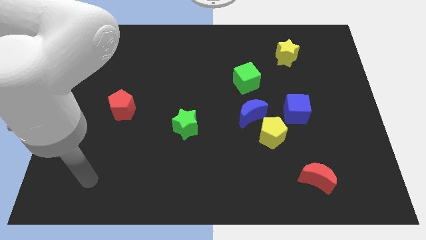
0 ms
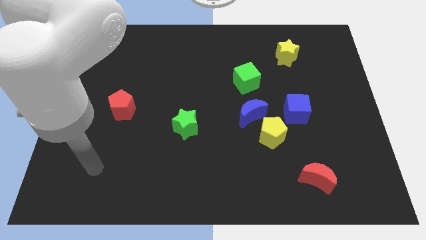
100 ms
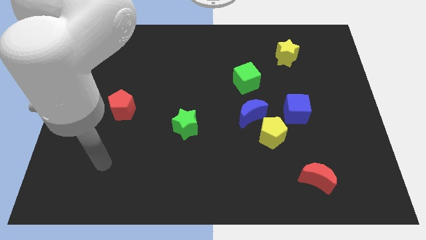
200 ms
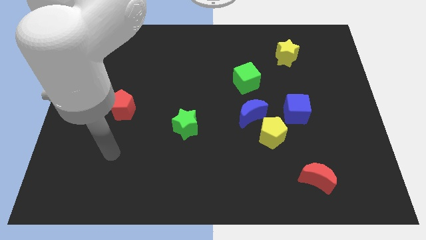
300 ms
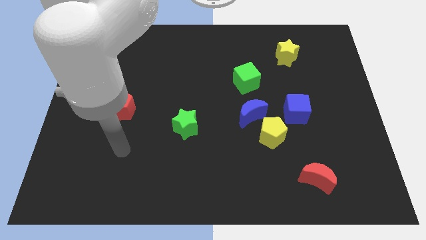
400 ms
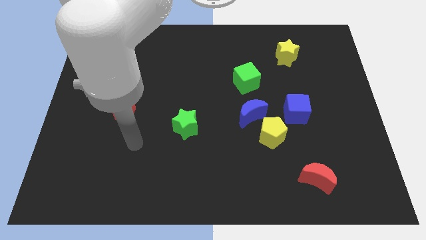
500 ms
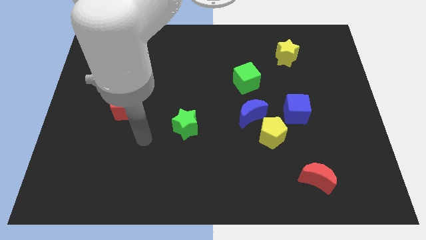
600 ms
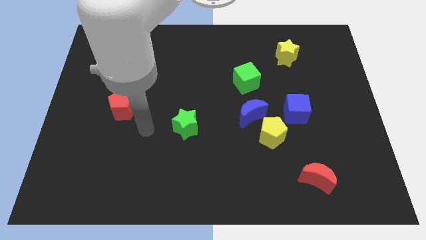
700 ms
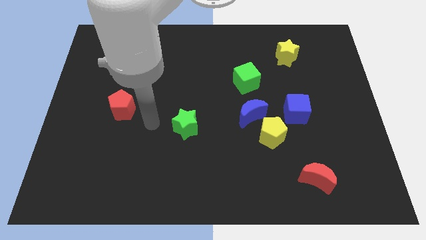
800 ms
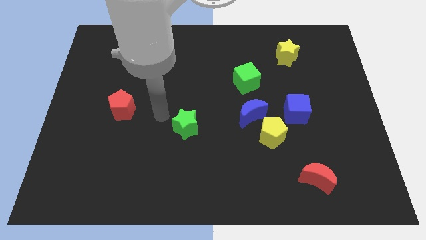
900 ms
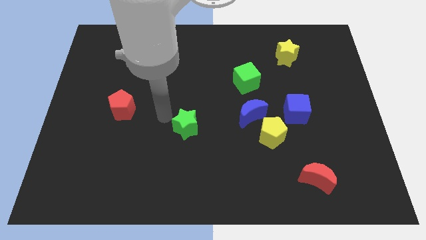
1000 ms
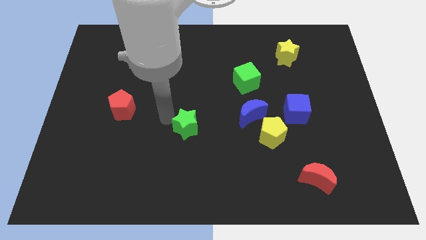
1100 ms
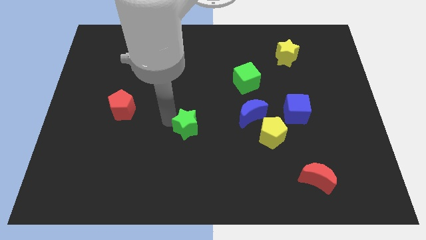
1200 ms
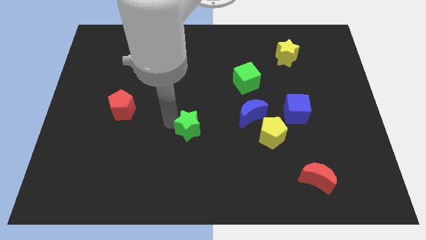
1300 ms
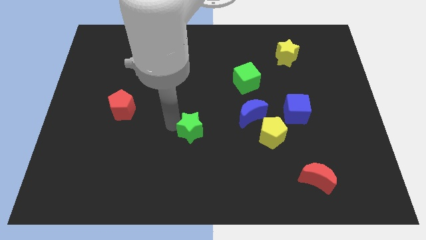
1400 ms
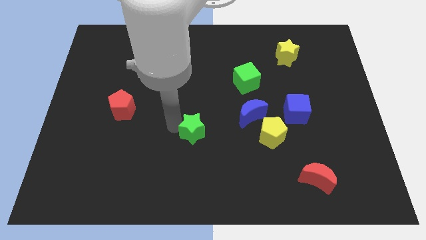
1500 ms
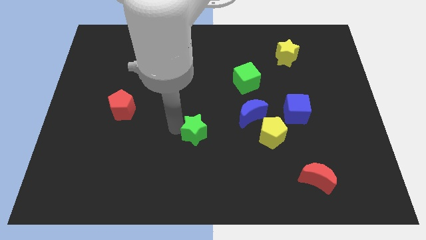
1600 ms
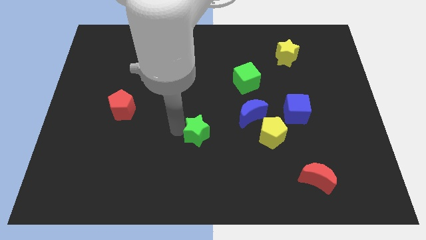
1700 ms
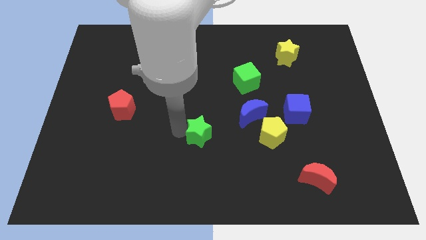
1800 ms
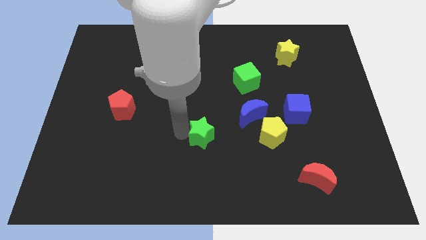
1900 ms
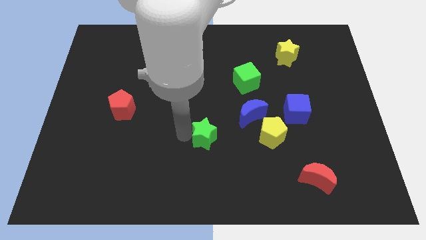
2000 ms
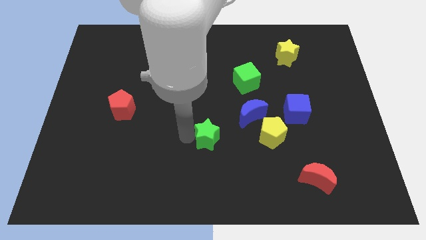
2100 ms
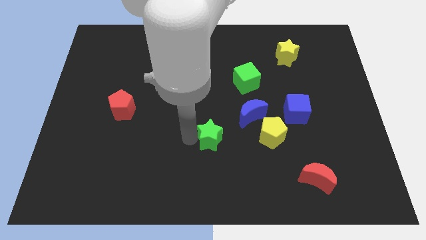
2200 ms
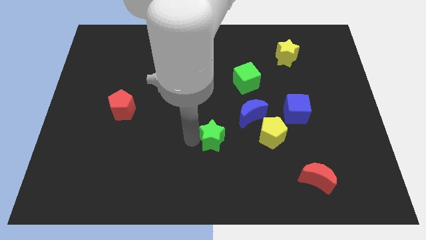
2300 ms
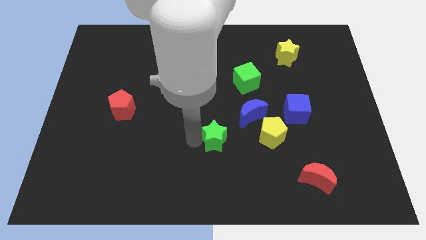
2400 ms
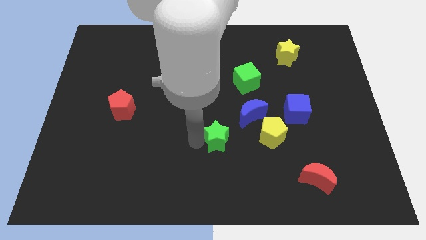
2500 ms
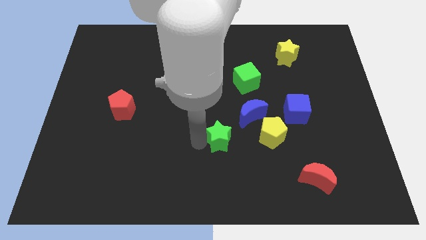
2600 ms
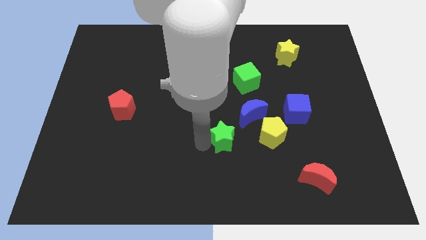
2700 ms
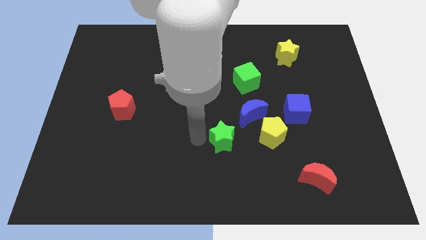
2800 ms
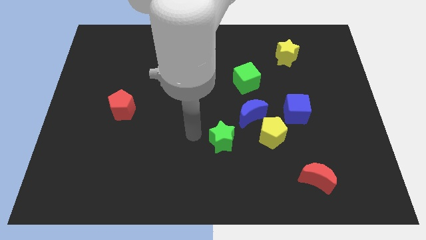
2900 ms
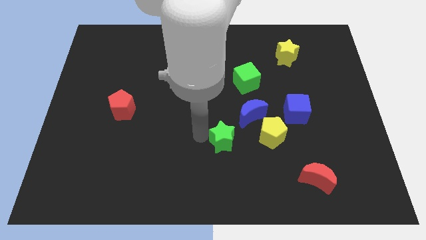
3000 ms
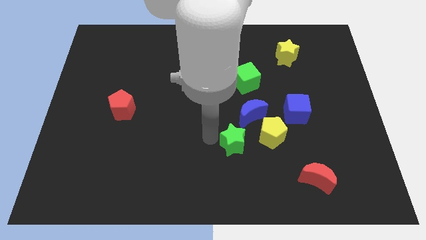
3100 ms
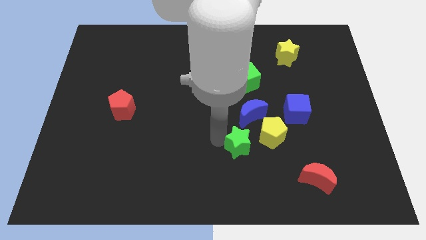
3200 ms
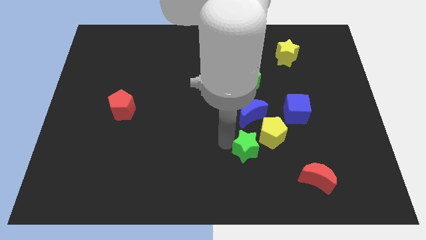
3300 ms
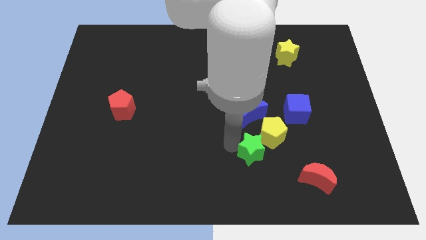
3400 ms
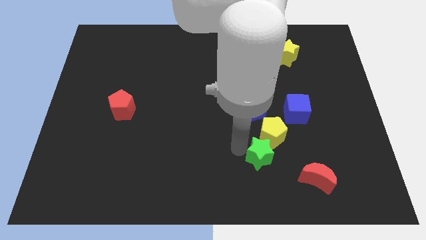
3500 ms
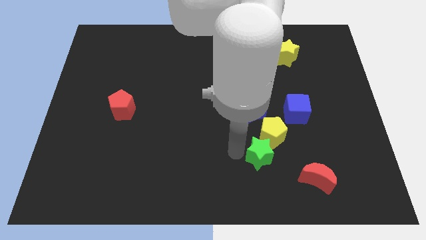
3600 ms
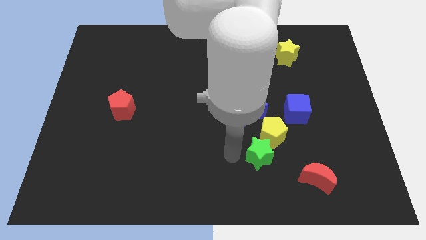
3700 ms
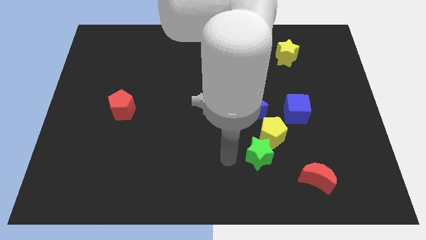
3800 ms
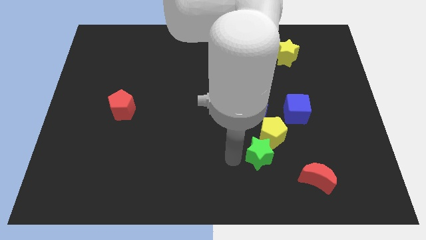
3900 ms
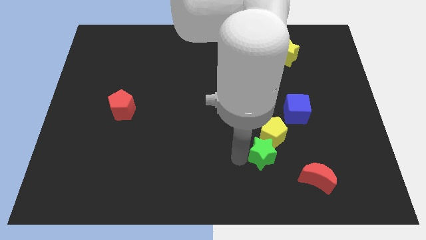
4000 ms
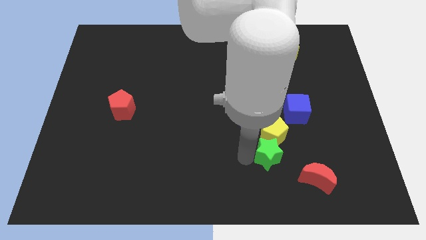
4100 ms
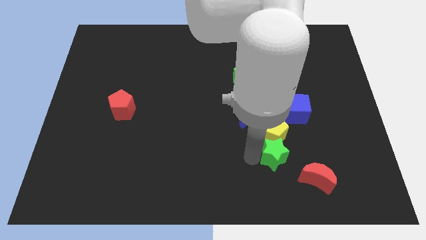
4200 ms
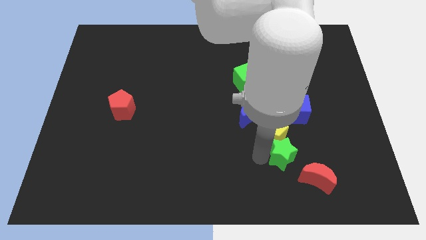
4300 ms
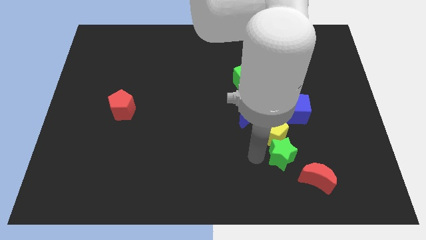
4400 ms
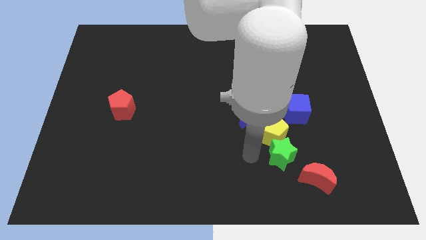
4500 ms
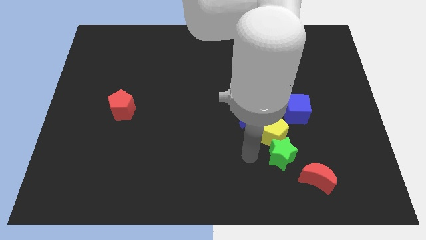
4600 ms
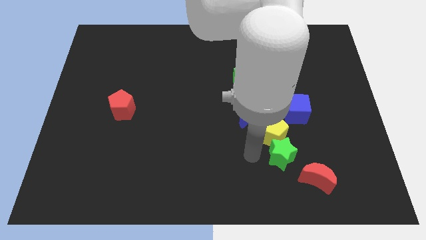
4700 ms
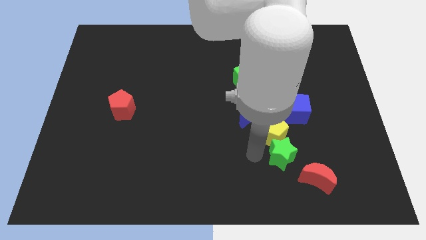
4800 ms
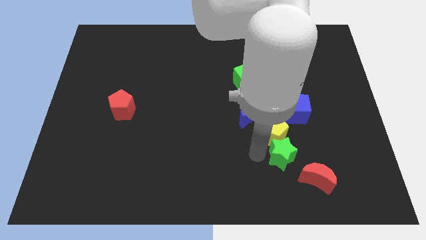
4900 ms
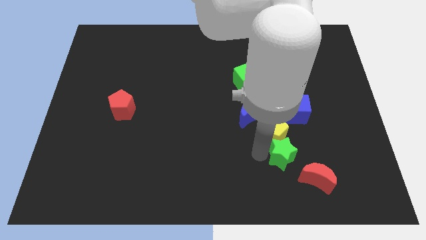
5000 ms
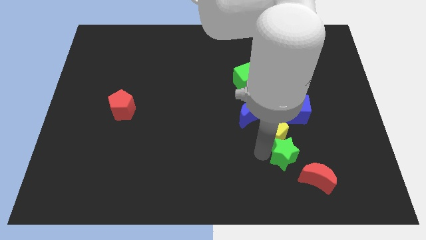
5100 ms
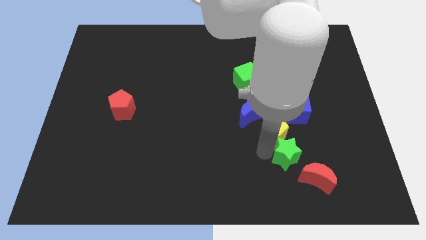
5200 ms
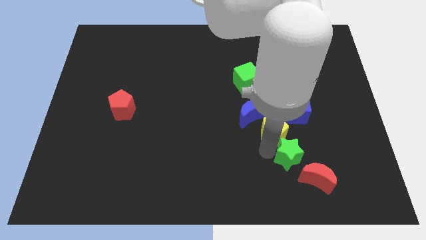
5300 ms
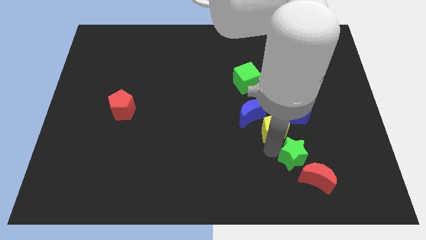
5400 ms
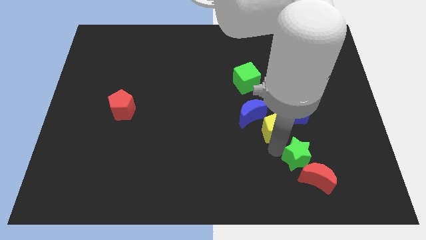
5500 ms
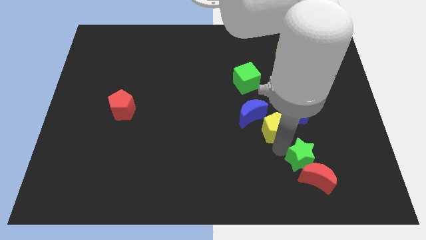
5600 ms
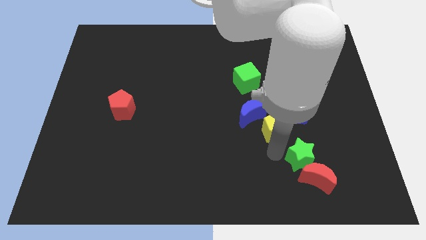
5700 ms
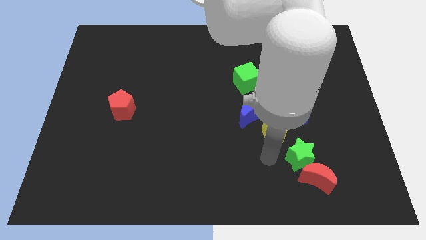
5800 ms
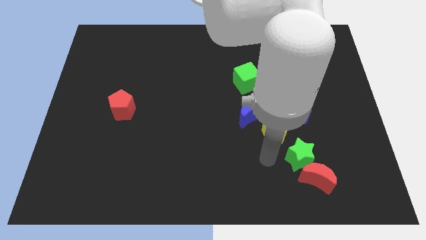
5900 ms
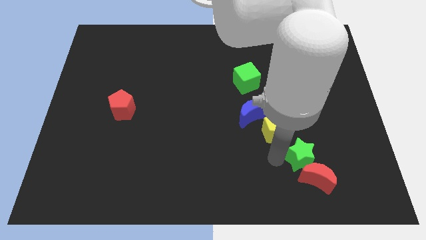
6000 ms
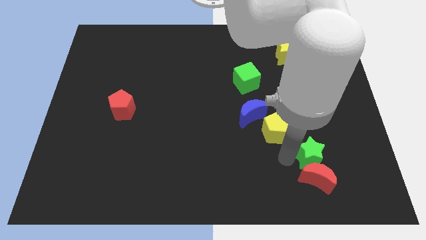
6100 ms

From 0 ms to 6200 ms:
push the green star to the top right of the red moon
